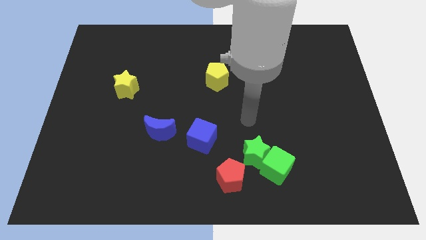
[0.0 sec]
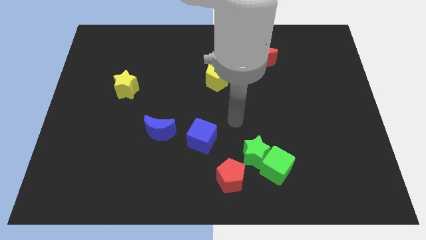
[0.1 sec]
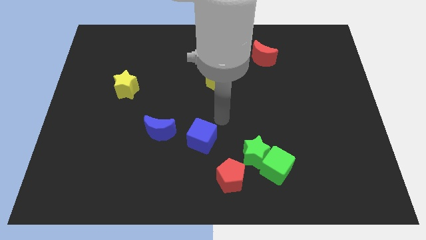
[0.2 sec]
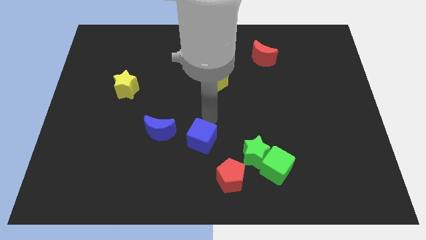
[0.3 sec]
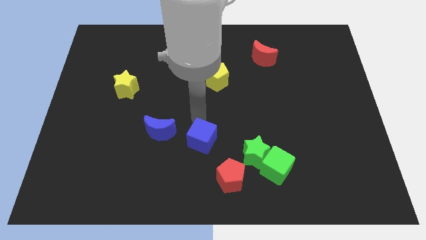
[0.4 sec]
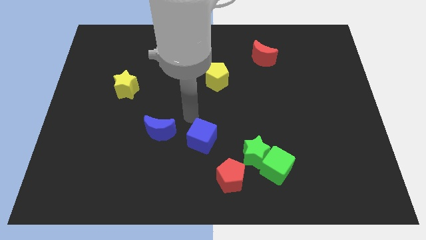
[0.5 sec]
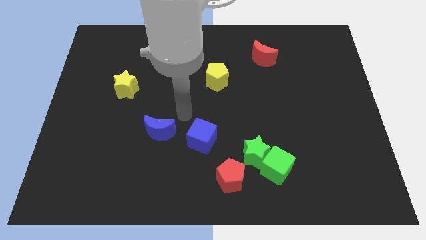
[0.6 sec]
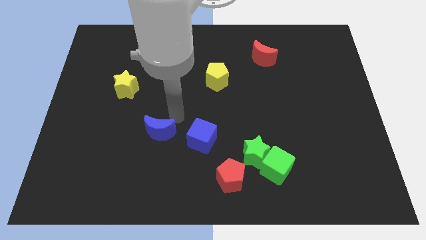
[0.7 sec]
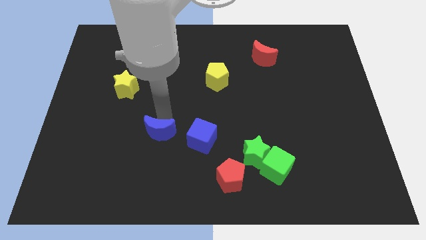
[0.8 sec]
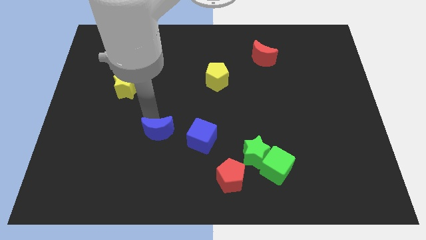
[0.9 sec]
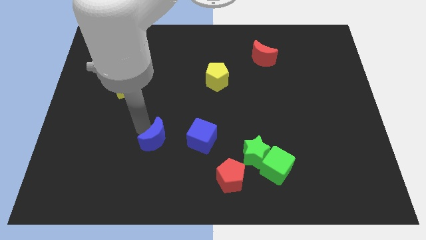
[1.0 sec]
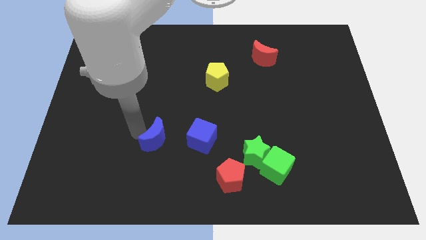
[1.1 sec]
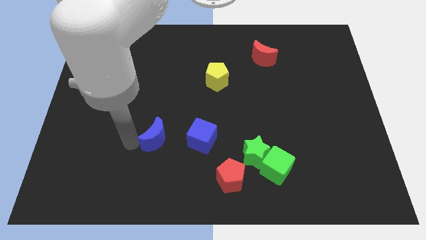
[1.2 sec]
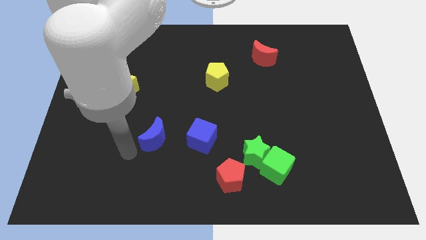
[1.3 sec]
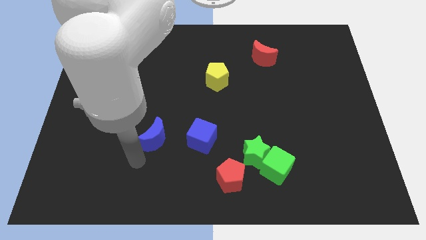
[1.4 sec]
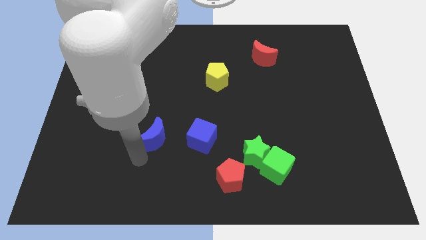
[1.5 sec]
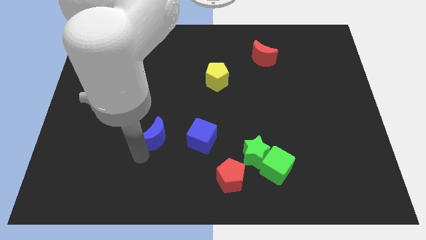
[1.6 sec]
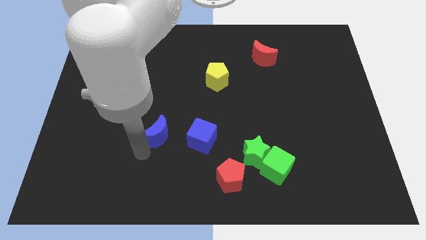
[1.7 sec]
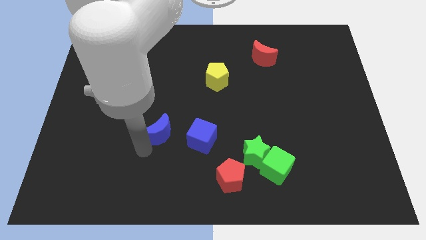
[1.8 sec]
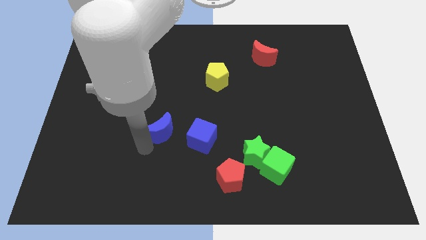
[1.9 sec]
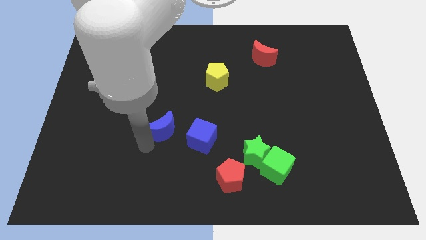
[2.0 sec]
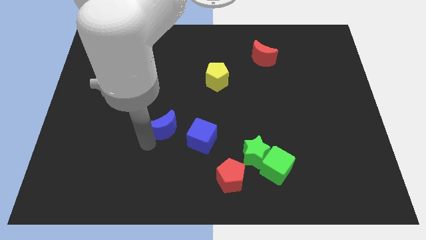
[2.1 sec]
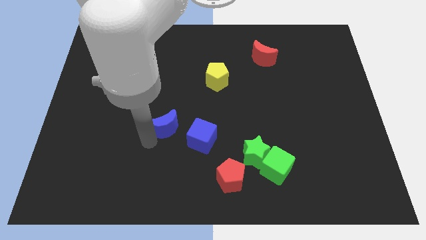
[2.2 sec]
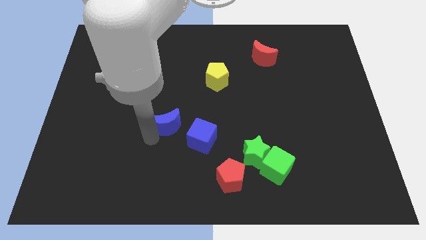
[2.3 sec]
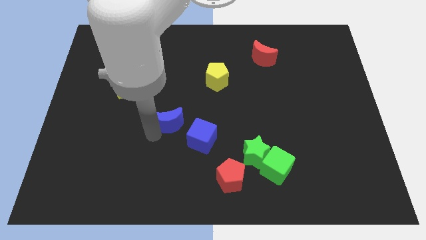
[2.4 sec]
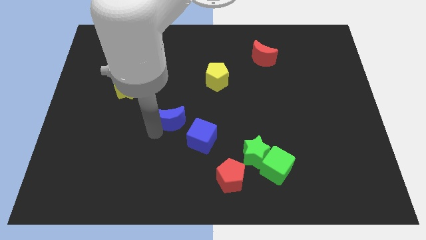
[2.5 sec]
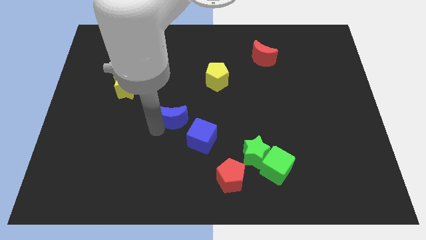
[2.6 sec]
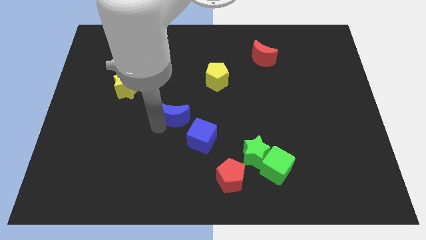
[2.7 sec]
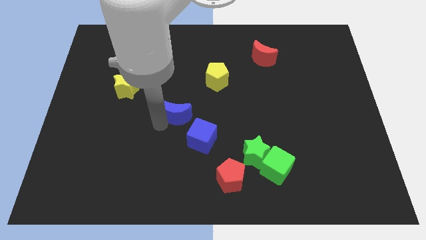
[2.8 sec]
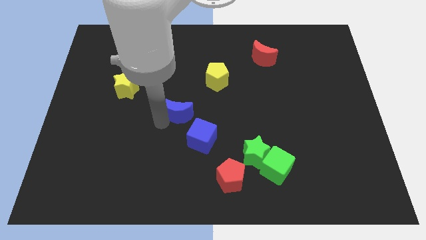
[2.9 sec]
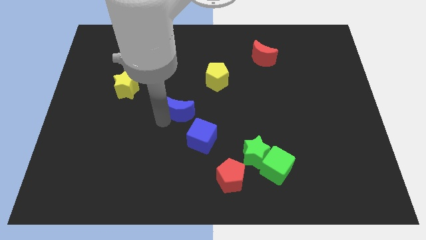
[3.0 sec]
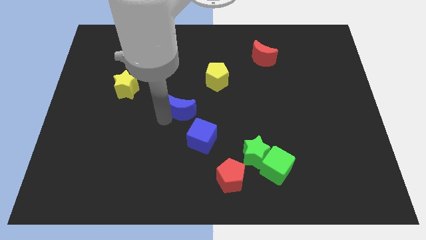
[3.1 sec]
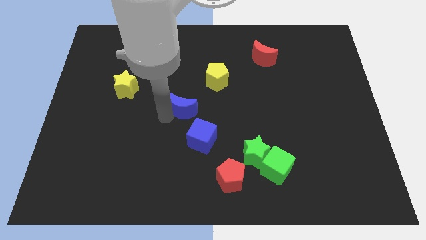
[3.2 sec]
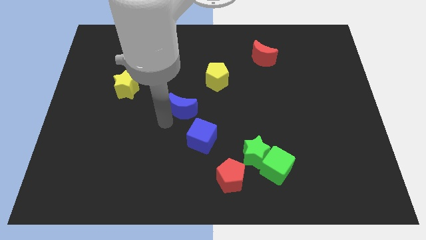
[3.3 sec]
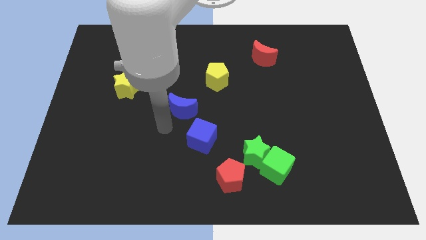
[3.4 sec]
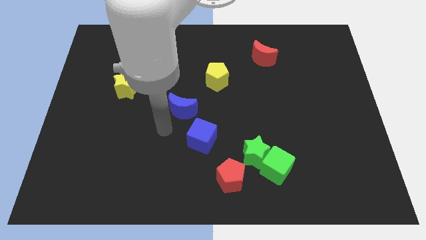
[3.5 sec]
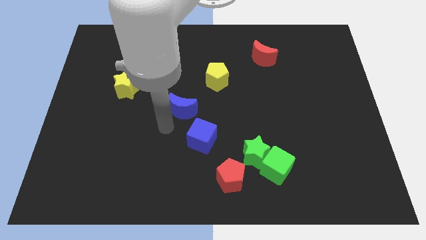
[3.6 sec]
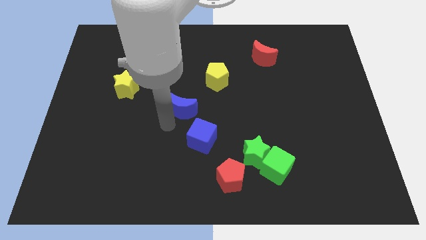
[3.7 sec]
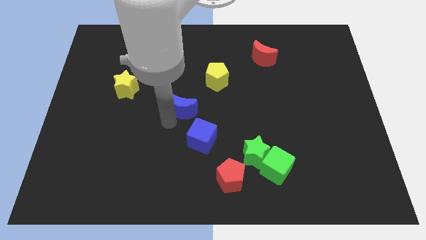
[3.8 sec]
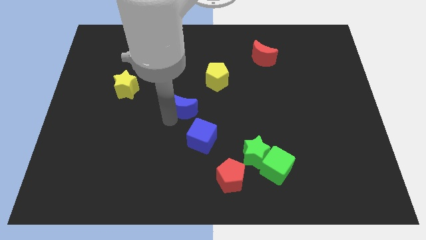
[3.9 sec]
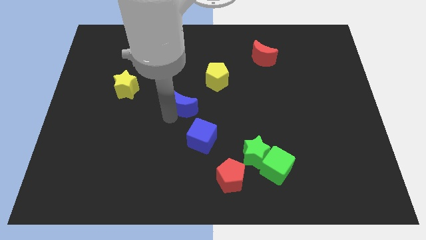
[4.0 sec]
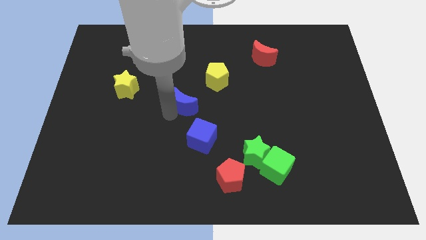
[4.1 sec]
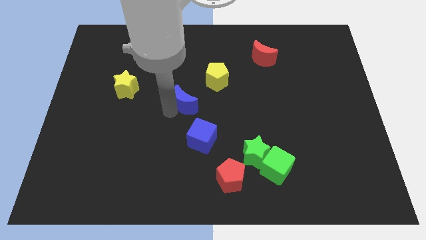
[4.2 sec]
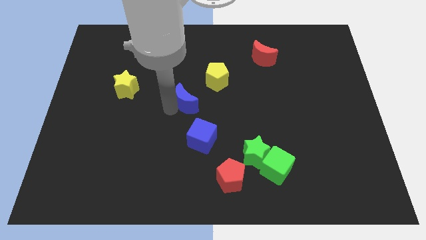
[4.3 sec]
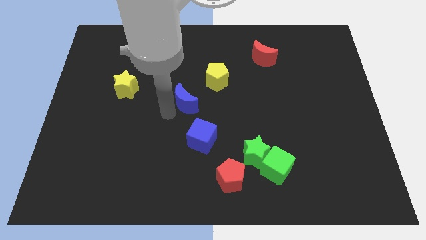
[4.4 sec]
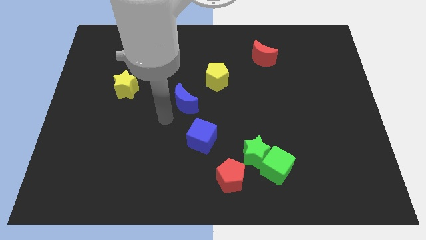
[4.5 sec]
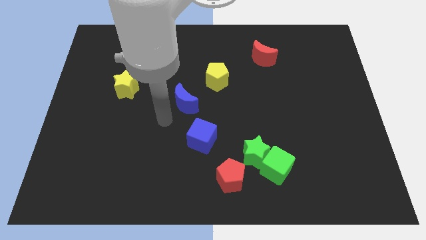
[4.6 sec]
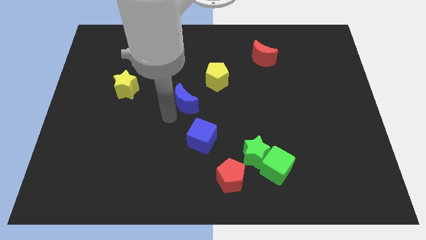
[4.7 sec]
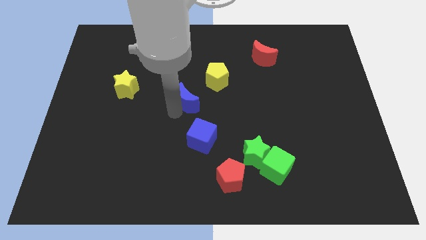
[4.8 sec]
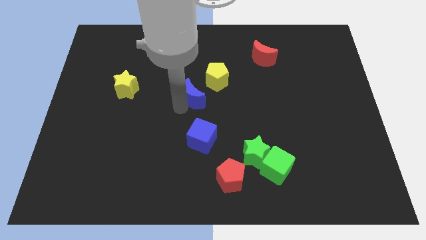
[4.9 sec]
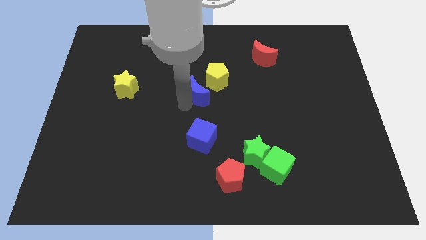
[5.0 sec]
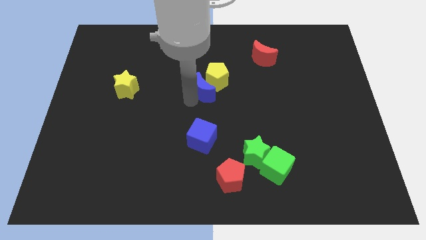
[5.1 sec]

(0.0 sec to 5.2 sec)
push the blue moon next to the yellow pentagon

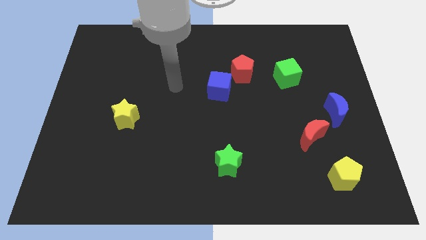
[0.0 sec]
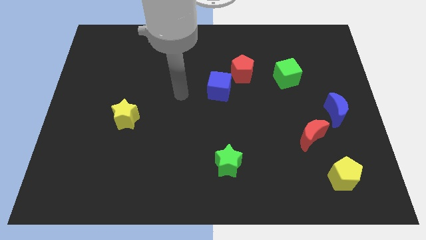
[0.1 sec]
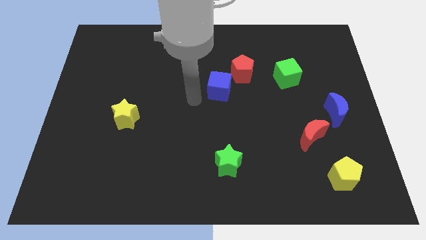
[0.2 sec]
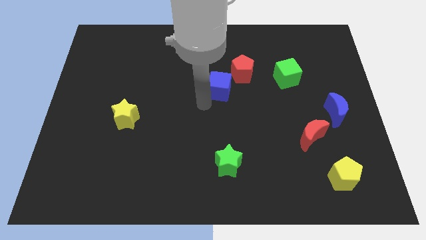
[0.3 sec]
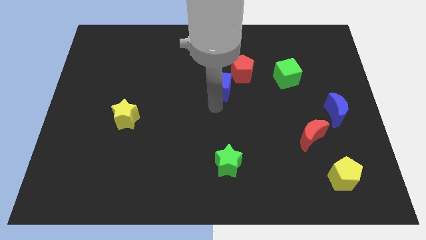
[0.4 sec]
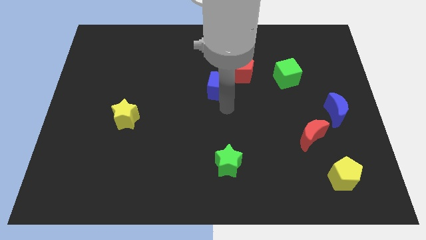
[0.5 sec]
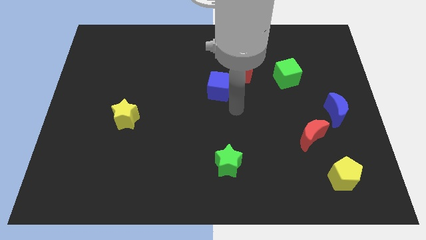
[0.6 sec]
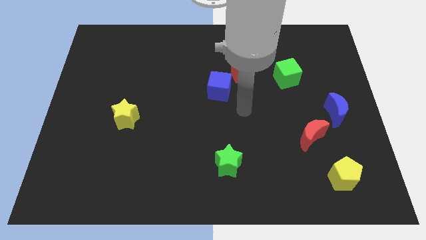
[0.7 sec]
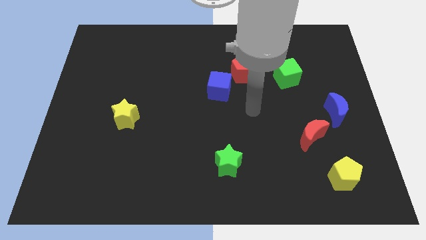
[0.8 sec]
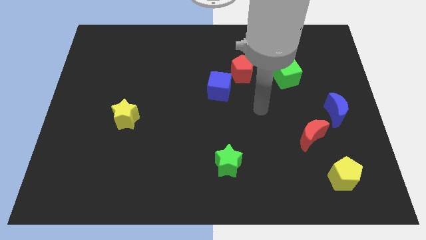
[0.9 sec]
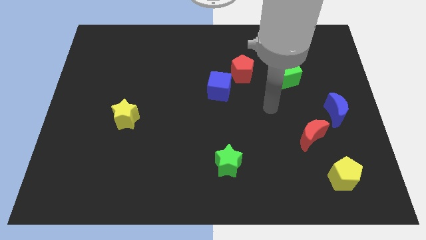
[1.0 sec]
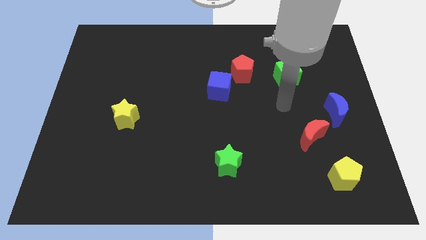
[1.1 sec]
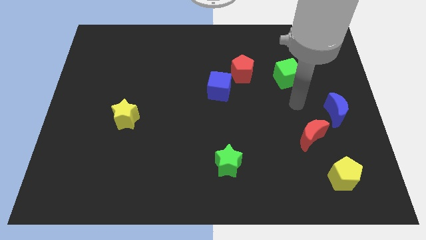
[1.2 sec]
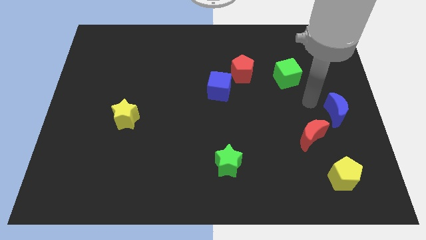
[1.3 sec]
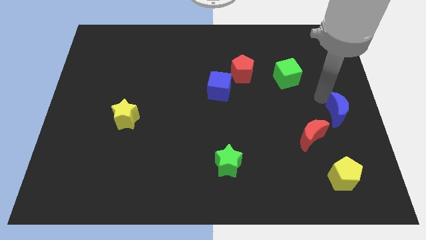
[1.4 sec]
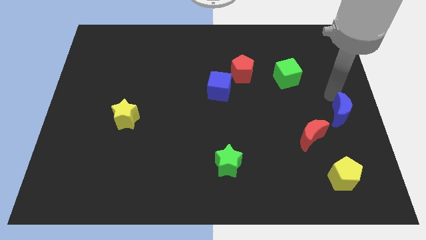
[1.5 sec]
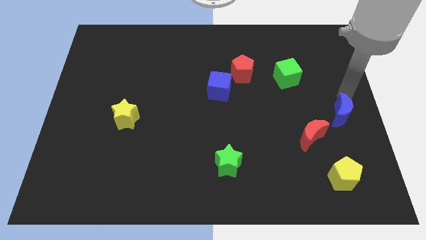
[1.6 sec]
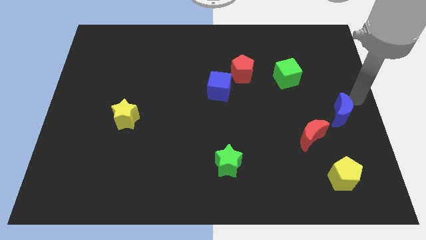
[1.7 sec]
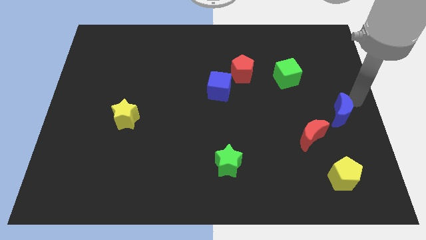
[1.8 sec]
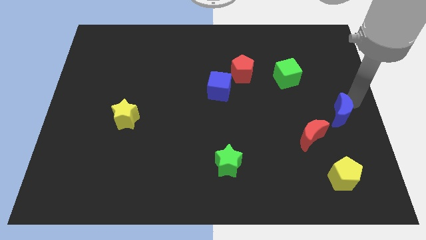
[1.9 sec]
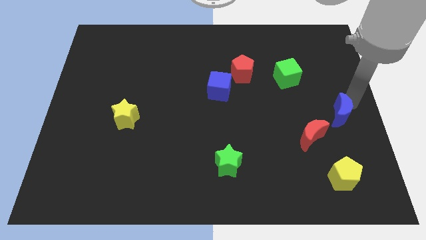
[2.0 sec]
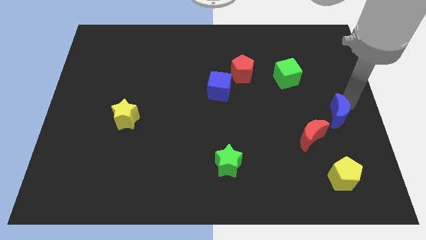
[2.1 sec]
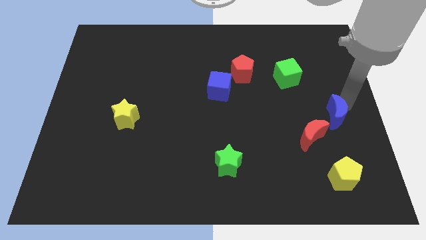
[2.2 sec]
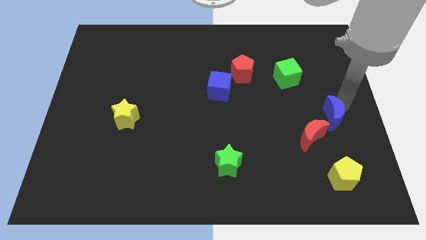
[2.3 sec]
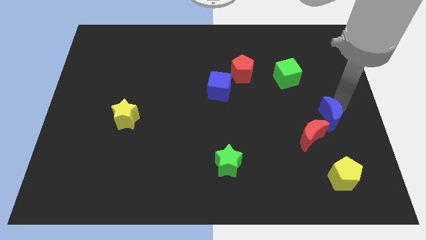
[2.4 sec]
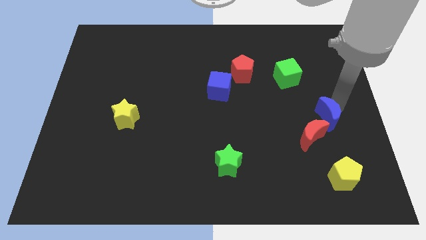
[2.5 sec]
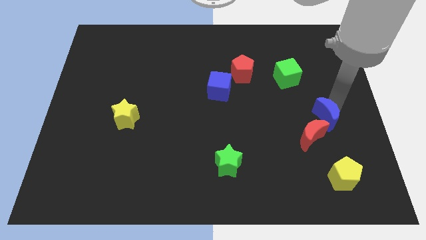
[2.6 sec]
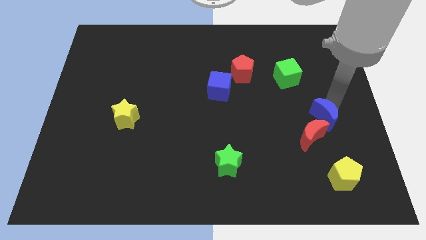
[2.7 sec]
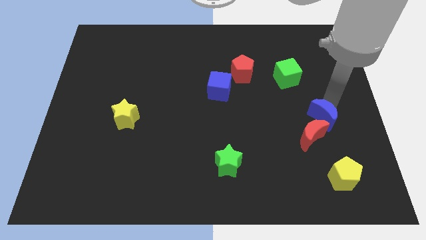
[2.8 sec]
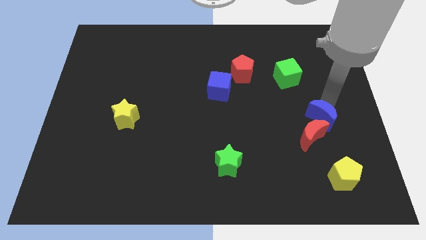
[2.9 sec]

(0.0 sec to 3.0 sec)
move the blue moon next to the red moon
